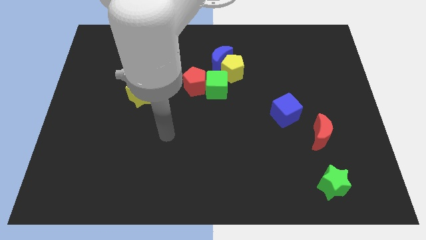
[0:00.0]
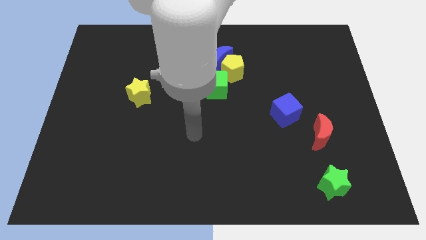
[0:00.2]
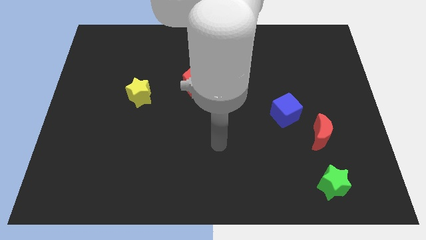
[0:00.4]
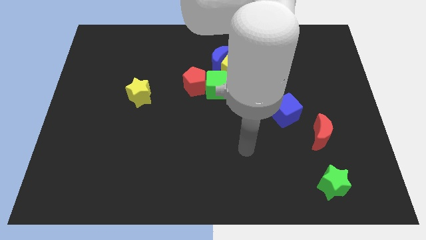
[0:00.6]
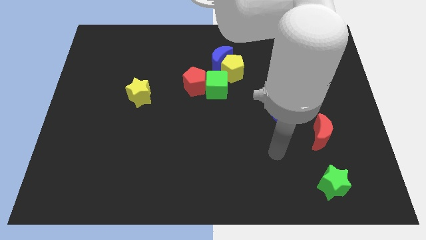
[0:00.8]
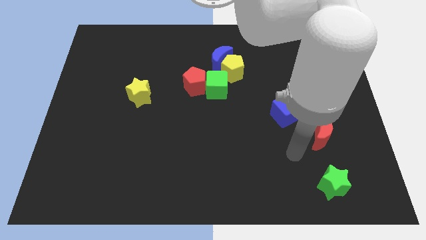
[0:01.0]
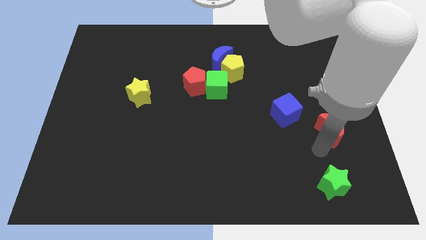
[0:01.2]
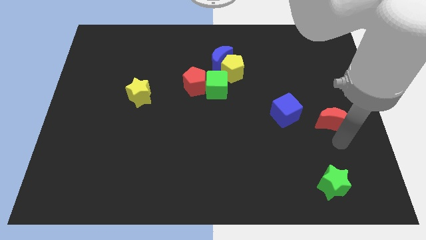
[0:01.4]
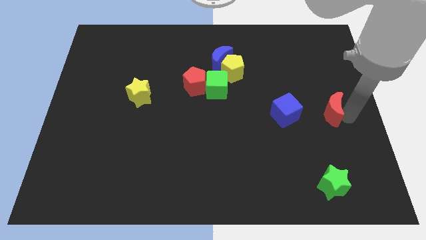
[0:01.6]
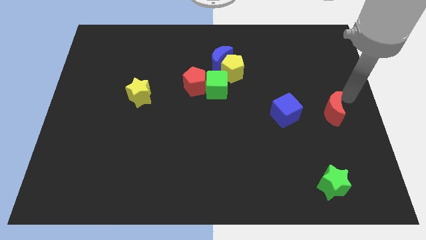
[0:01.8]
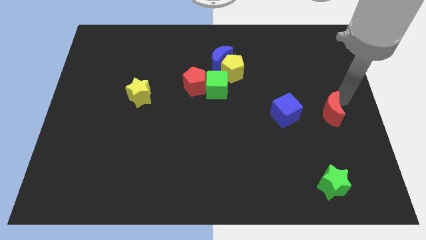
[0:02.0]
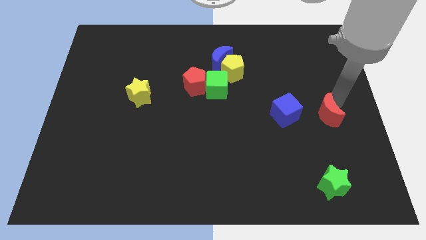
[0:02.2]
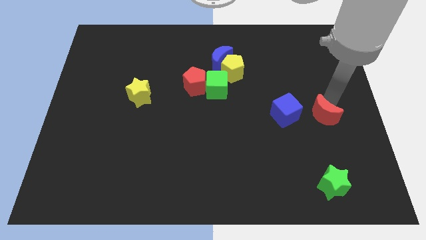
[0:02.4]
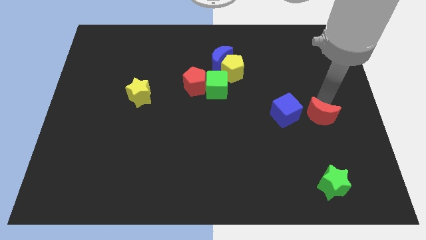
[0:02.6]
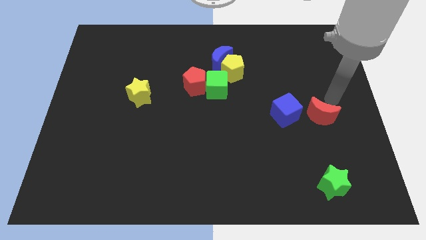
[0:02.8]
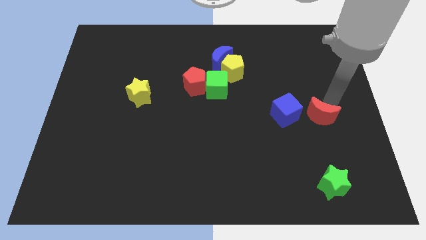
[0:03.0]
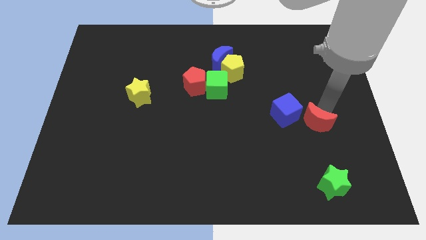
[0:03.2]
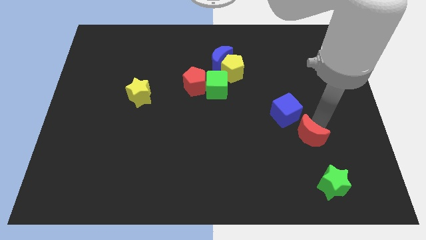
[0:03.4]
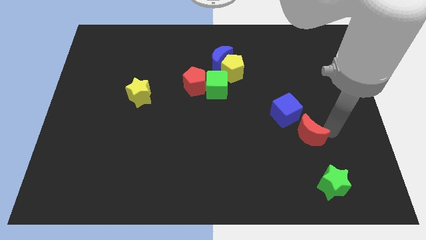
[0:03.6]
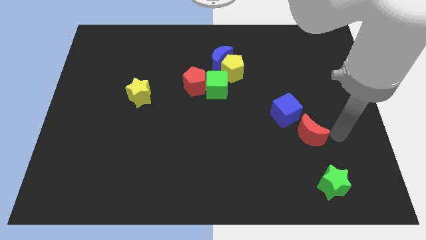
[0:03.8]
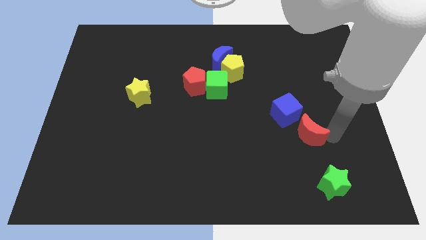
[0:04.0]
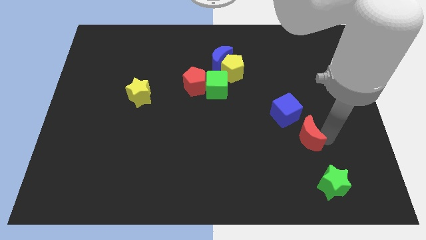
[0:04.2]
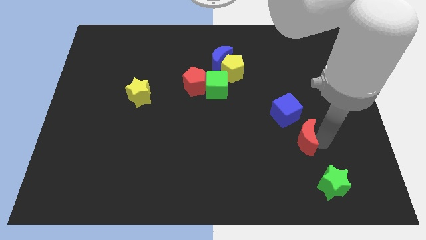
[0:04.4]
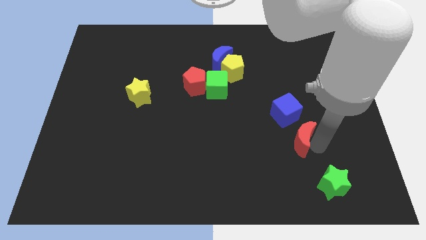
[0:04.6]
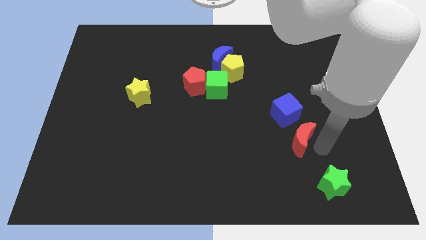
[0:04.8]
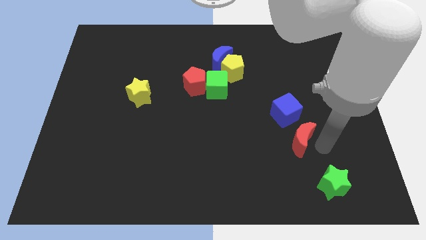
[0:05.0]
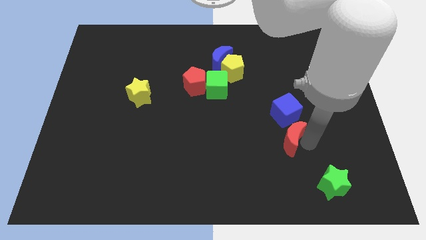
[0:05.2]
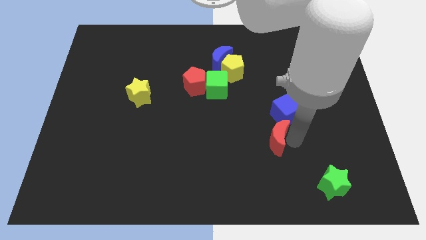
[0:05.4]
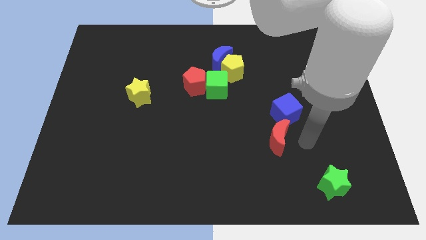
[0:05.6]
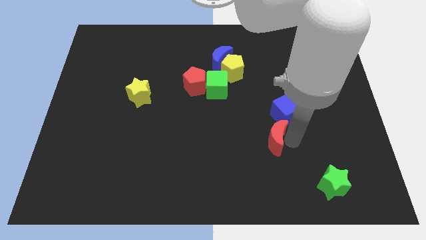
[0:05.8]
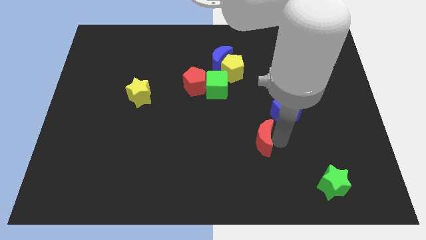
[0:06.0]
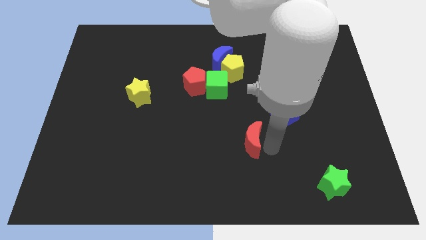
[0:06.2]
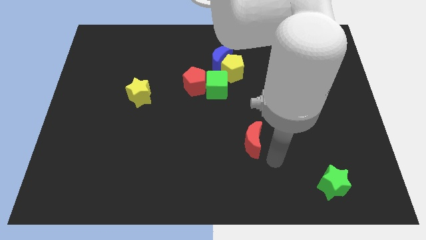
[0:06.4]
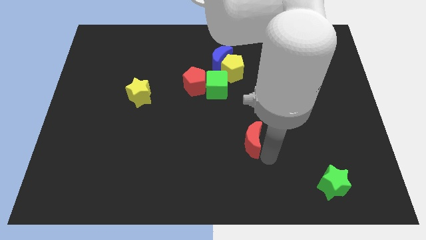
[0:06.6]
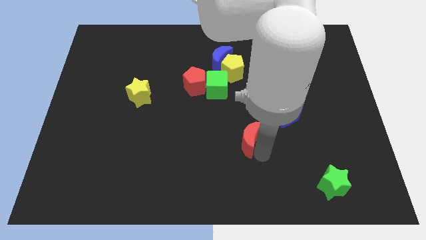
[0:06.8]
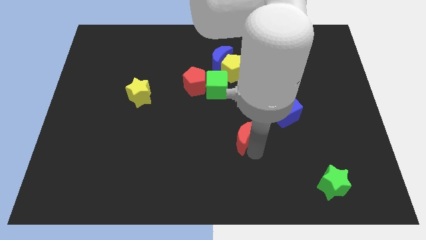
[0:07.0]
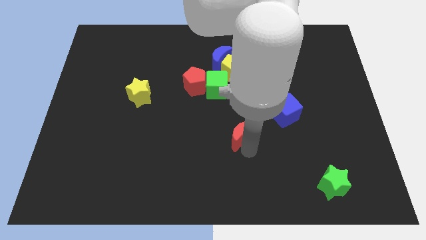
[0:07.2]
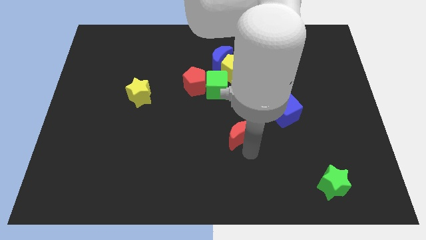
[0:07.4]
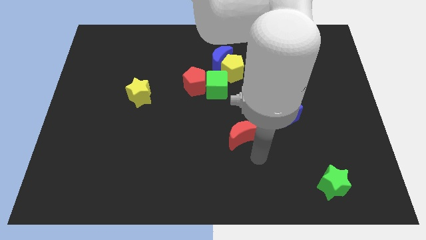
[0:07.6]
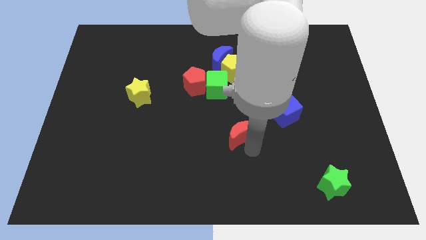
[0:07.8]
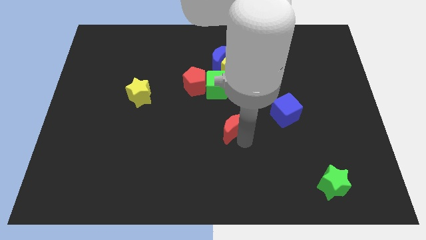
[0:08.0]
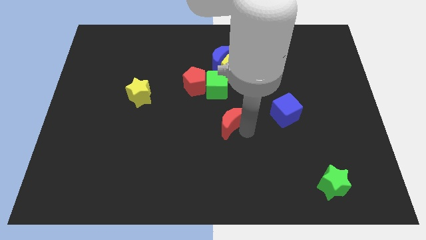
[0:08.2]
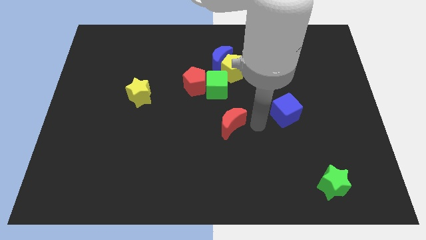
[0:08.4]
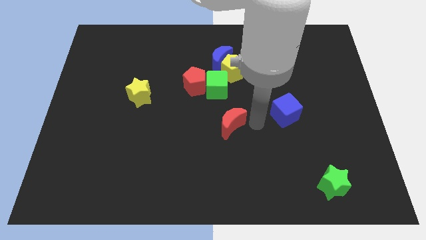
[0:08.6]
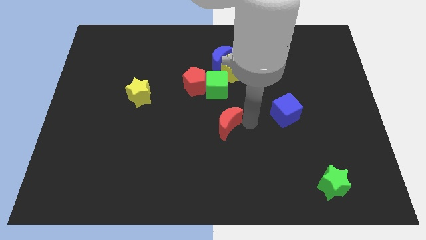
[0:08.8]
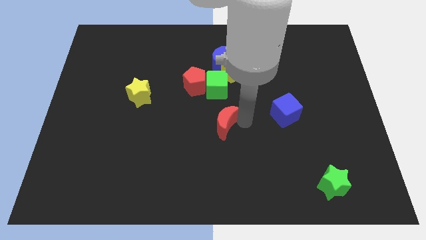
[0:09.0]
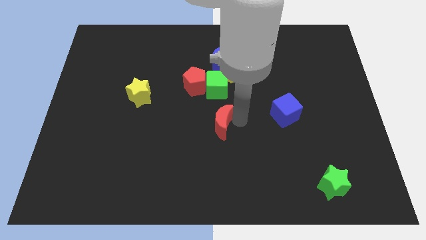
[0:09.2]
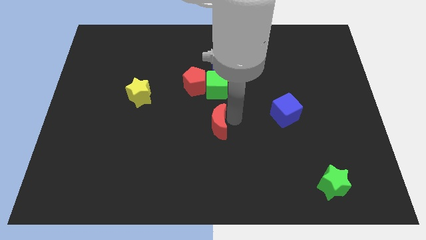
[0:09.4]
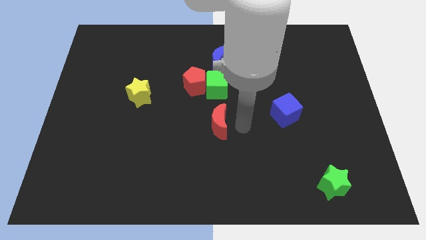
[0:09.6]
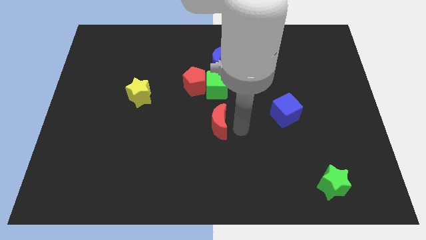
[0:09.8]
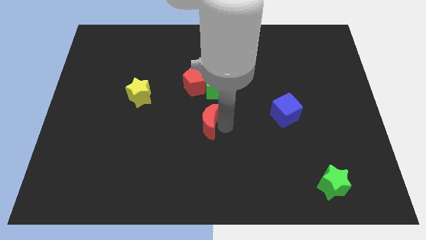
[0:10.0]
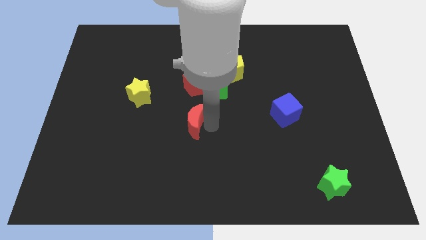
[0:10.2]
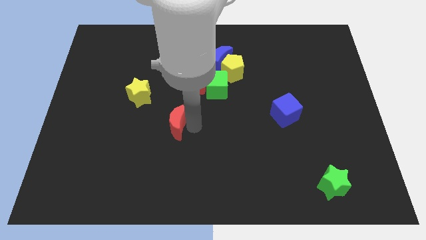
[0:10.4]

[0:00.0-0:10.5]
put the red moon to the bottom right side of the yellow star

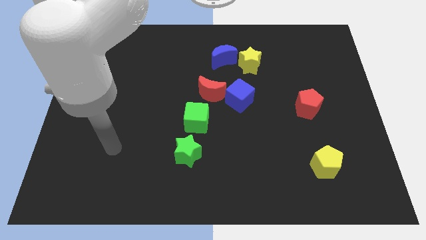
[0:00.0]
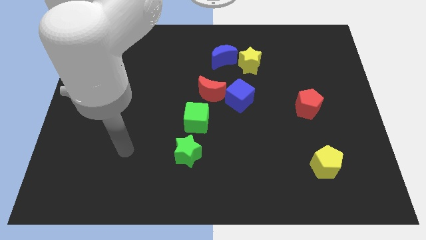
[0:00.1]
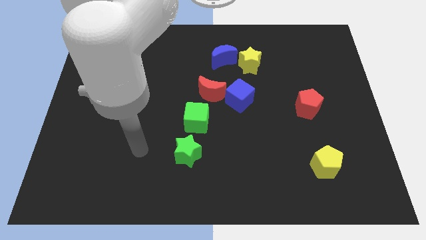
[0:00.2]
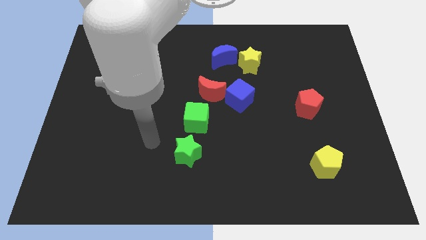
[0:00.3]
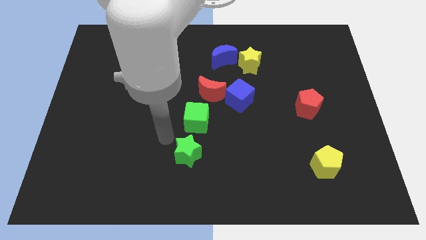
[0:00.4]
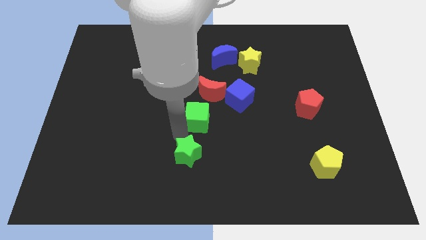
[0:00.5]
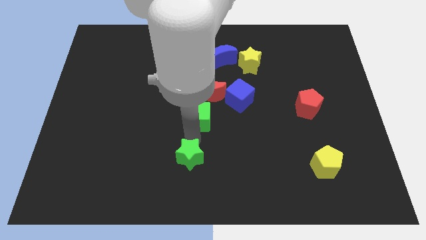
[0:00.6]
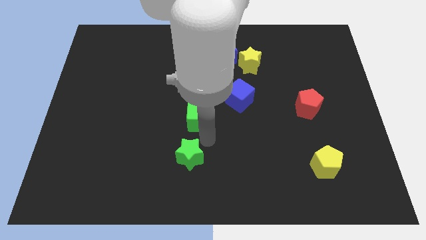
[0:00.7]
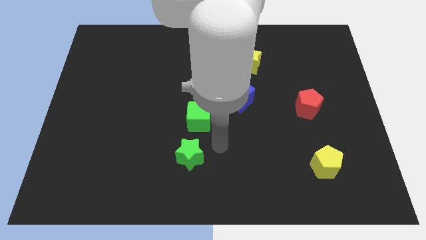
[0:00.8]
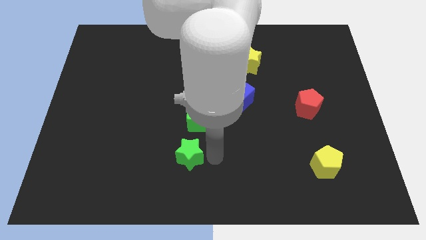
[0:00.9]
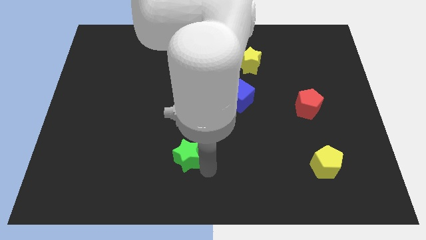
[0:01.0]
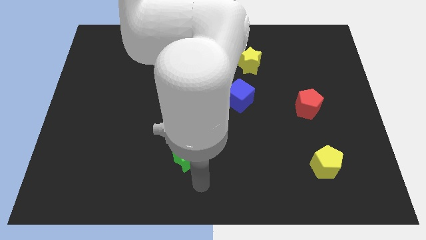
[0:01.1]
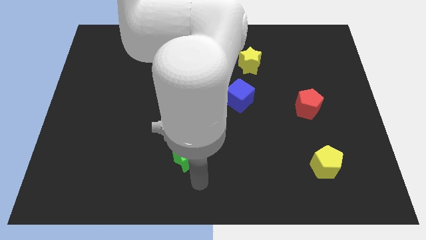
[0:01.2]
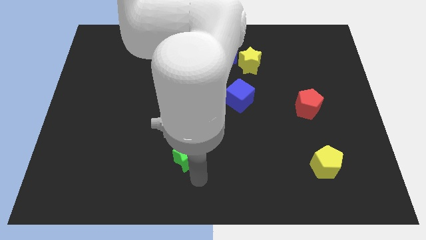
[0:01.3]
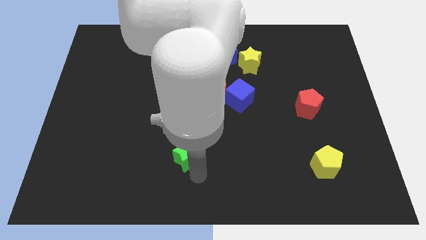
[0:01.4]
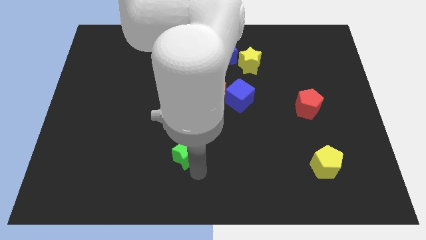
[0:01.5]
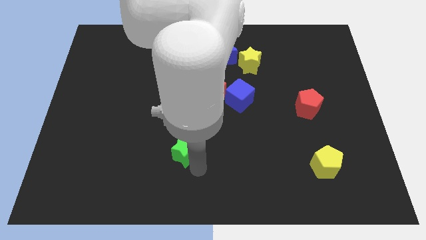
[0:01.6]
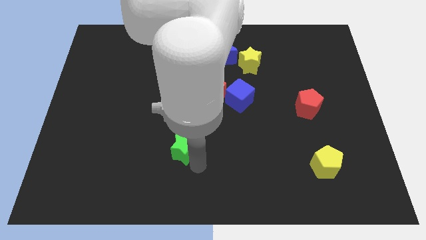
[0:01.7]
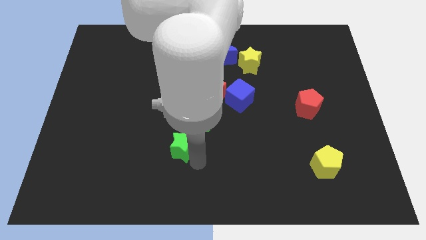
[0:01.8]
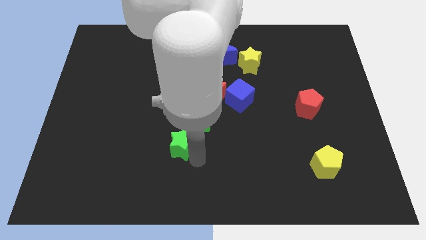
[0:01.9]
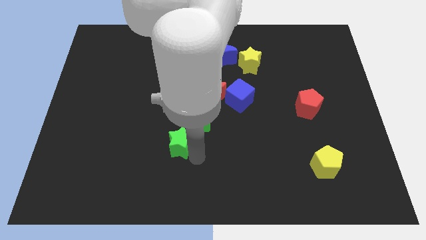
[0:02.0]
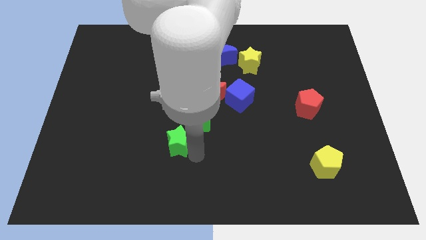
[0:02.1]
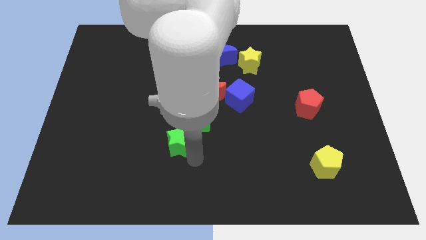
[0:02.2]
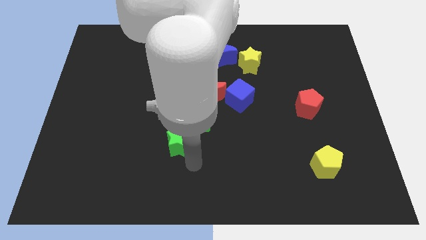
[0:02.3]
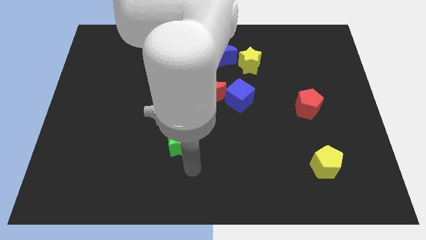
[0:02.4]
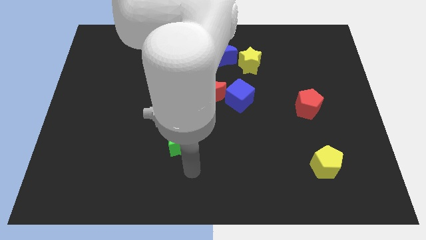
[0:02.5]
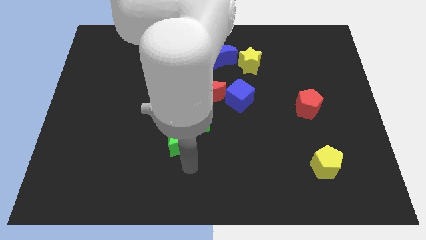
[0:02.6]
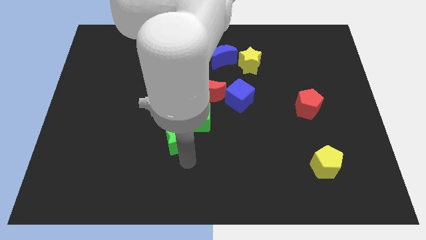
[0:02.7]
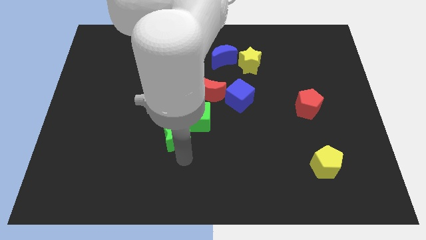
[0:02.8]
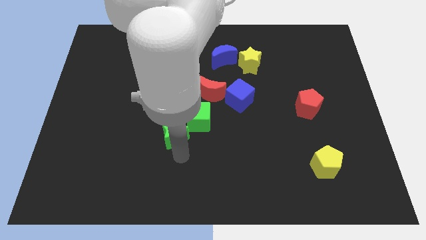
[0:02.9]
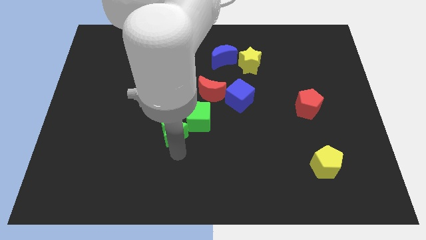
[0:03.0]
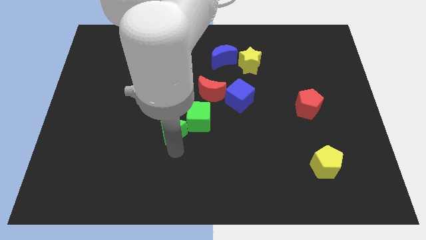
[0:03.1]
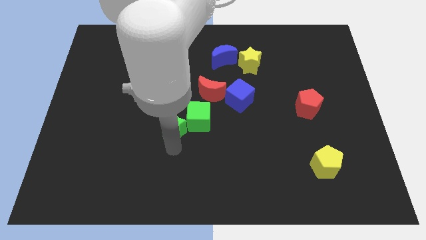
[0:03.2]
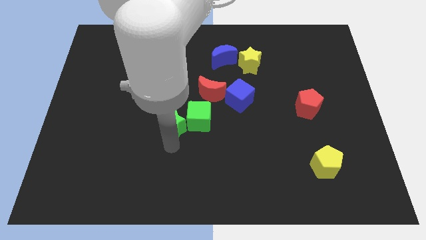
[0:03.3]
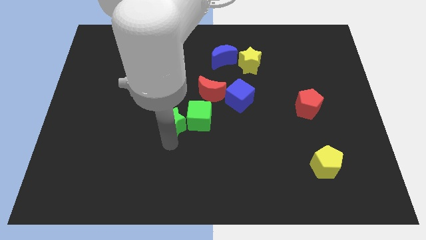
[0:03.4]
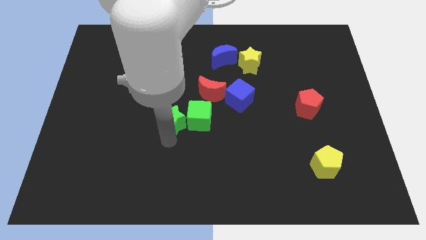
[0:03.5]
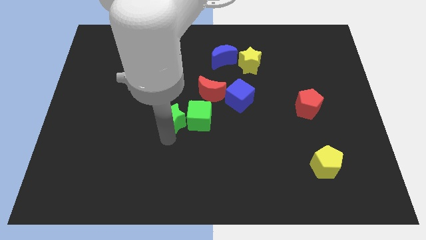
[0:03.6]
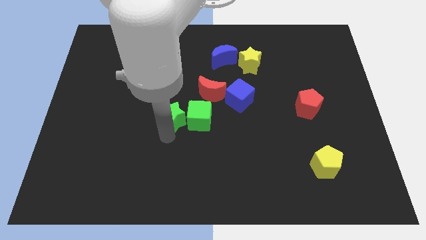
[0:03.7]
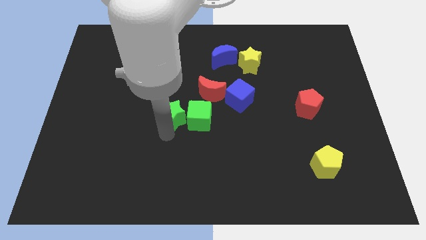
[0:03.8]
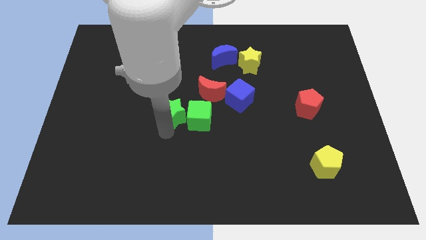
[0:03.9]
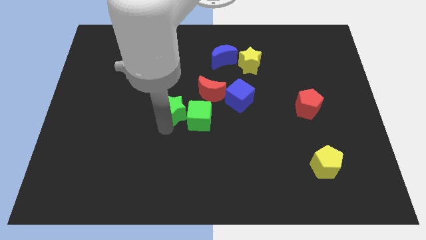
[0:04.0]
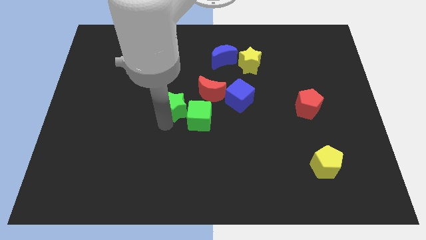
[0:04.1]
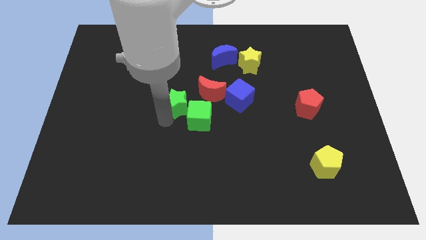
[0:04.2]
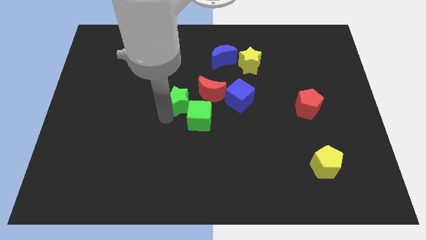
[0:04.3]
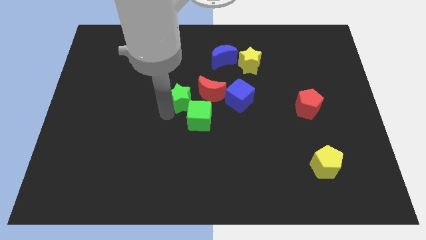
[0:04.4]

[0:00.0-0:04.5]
push the green star to the top of the green cube
